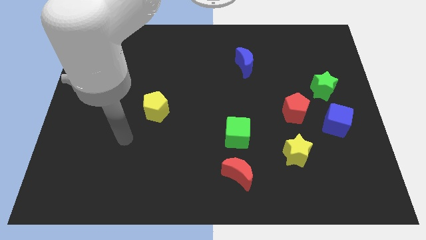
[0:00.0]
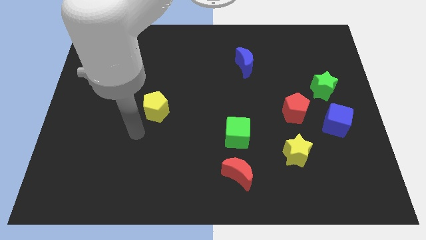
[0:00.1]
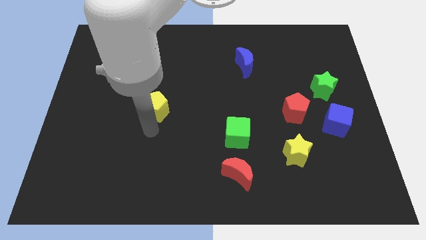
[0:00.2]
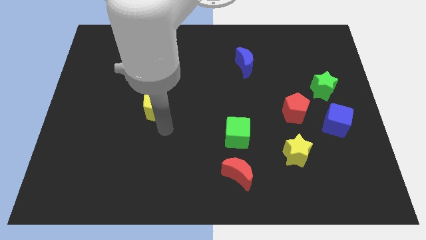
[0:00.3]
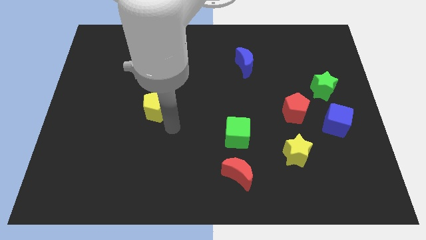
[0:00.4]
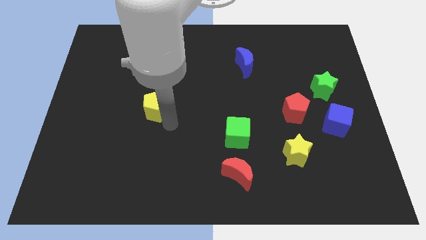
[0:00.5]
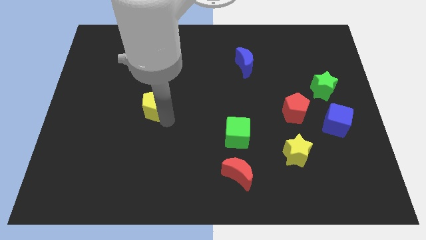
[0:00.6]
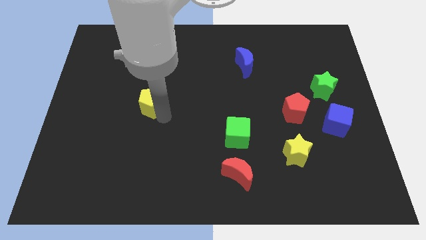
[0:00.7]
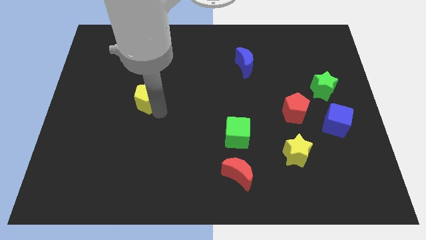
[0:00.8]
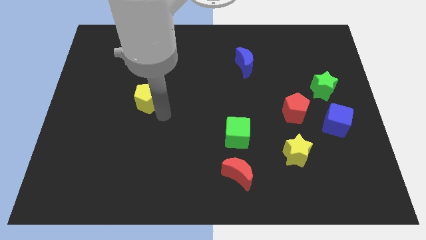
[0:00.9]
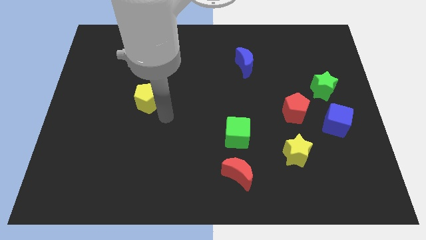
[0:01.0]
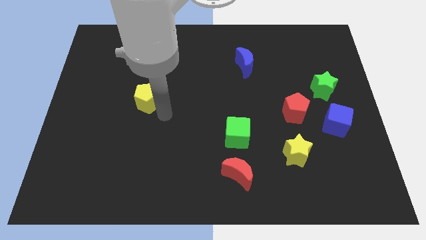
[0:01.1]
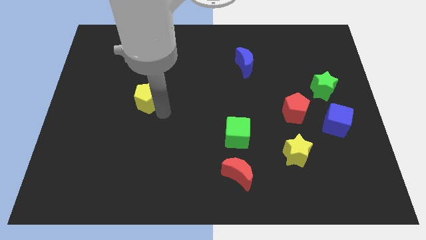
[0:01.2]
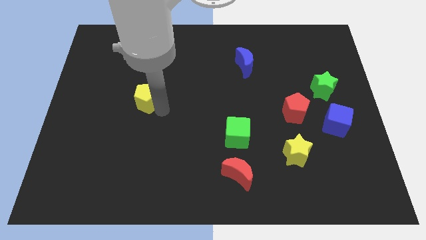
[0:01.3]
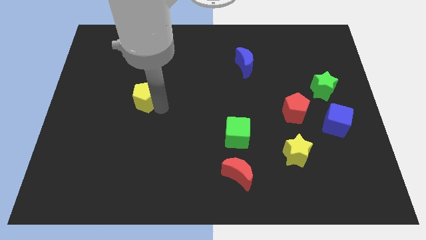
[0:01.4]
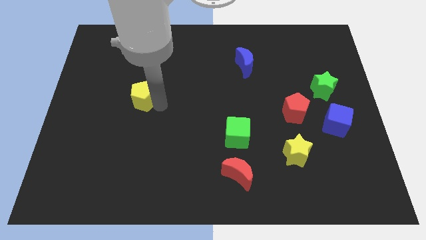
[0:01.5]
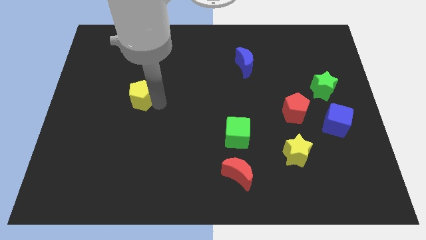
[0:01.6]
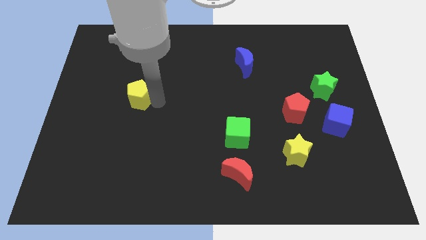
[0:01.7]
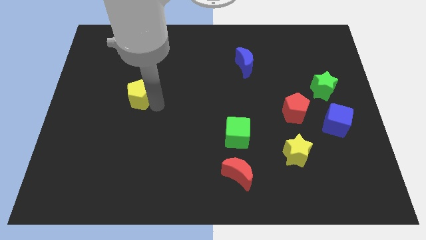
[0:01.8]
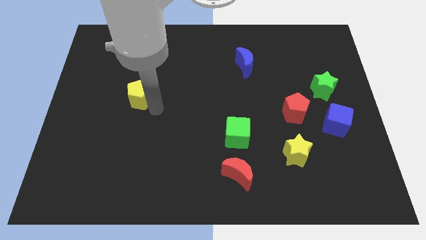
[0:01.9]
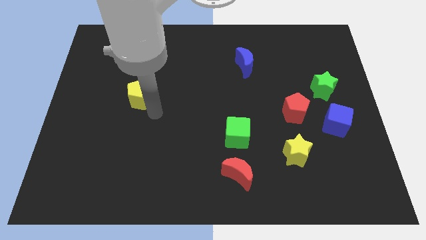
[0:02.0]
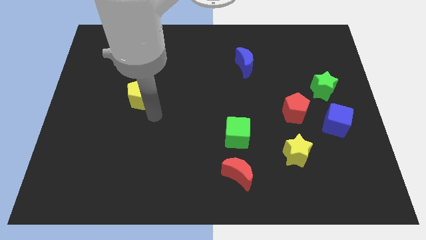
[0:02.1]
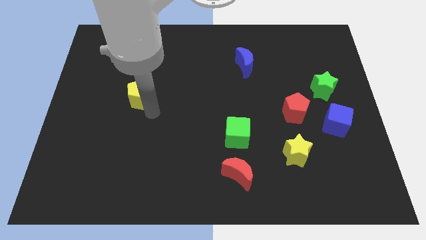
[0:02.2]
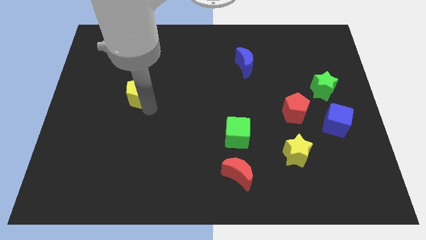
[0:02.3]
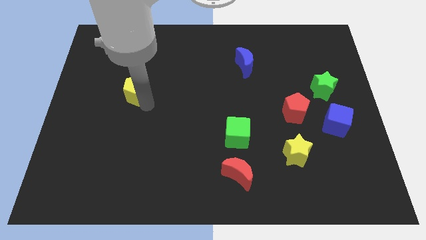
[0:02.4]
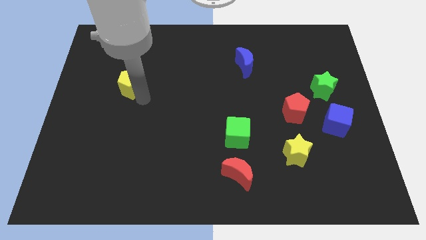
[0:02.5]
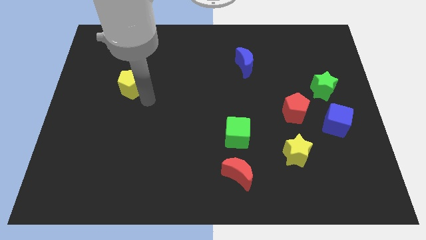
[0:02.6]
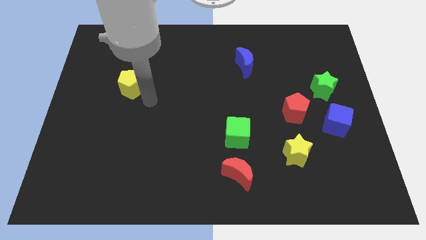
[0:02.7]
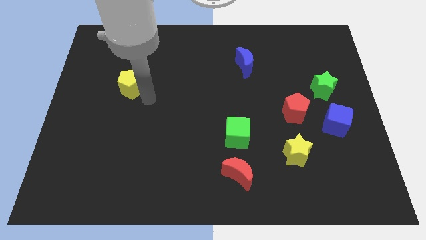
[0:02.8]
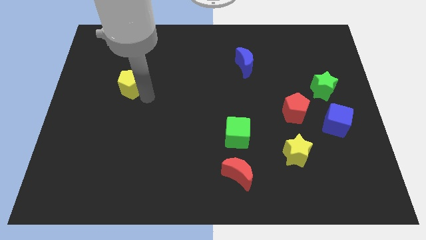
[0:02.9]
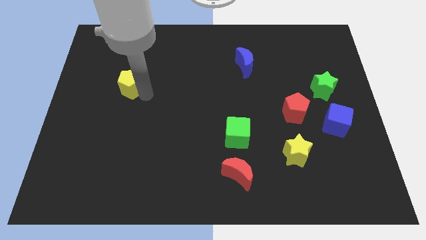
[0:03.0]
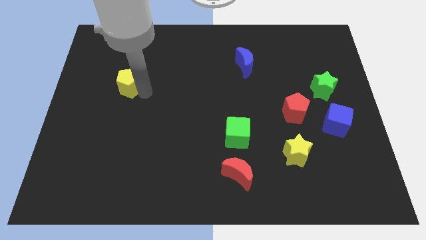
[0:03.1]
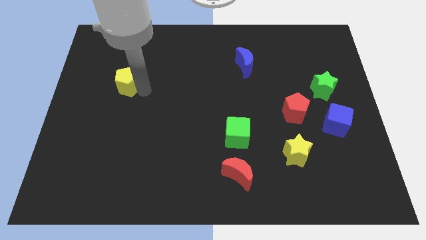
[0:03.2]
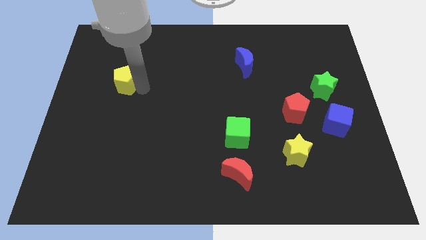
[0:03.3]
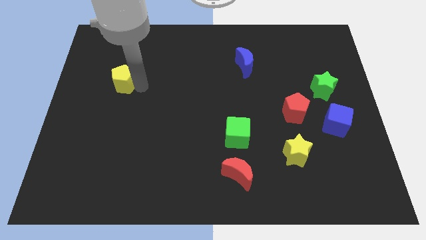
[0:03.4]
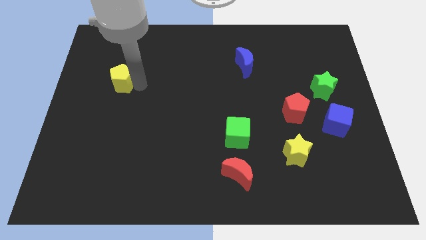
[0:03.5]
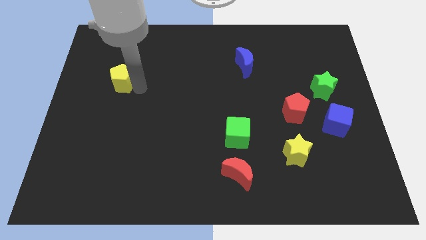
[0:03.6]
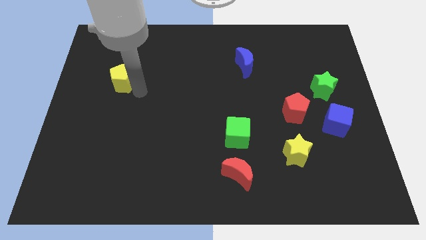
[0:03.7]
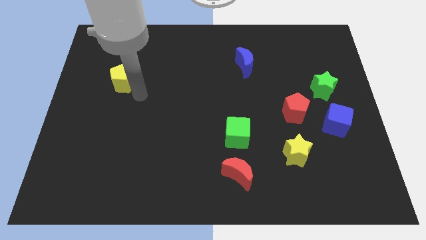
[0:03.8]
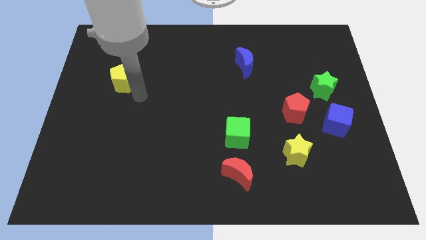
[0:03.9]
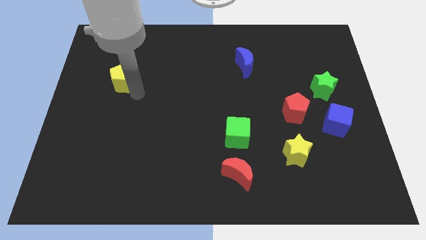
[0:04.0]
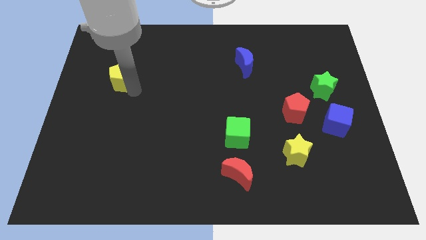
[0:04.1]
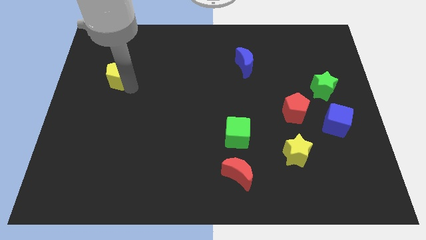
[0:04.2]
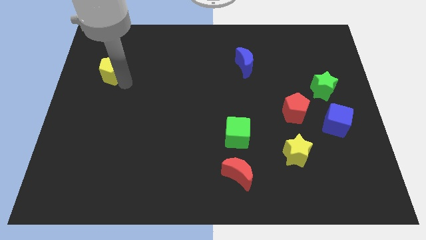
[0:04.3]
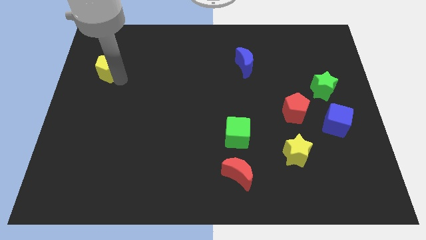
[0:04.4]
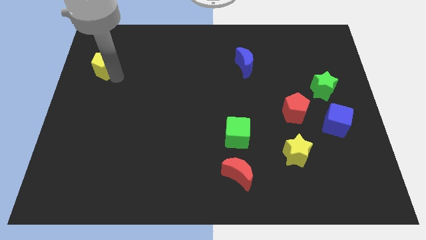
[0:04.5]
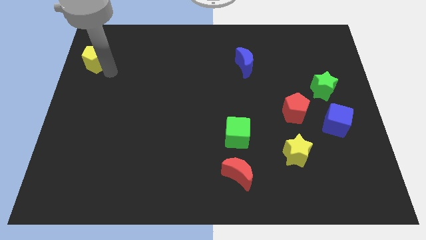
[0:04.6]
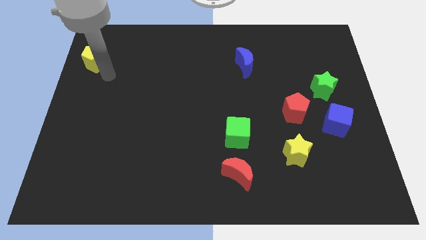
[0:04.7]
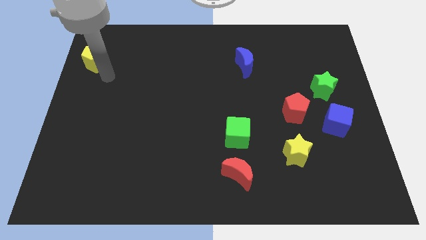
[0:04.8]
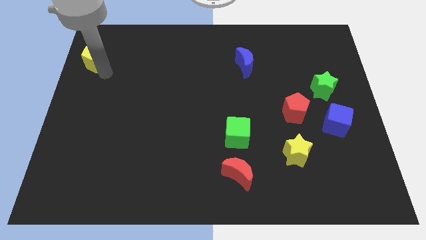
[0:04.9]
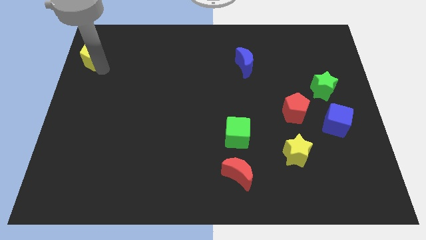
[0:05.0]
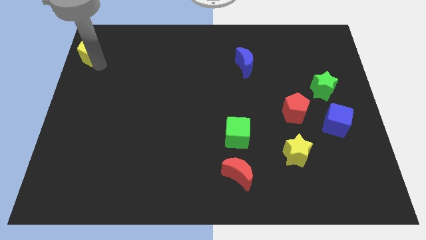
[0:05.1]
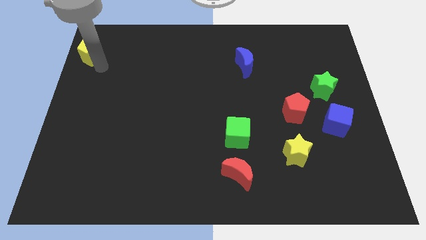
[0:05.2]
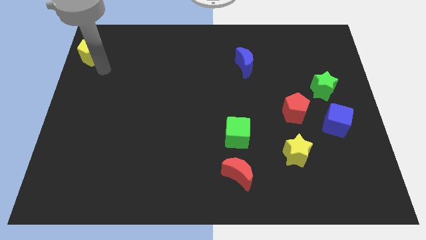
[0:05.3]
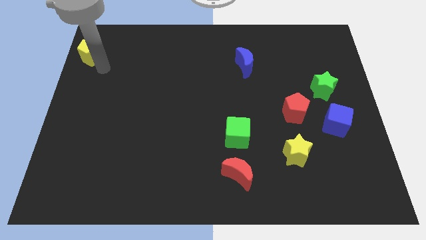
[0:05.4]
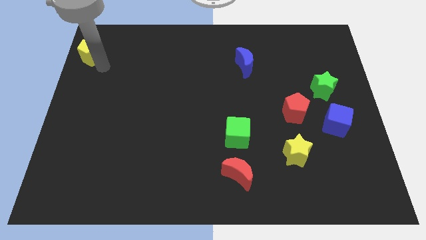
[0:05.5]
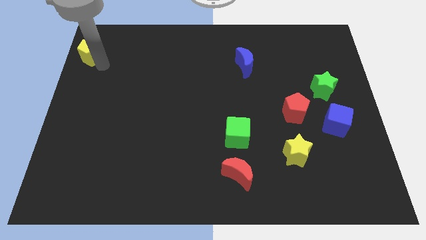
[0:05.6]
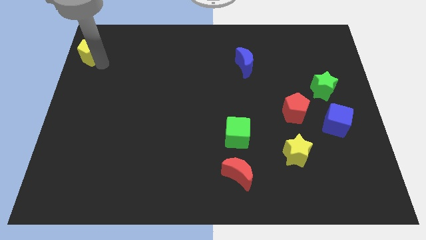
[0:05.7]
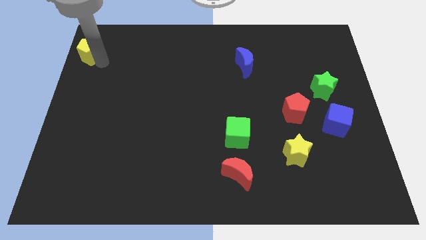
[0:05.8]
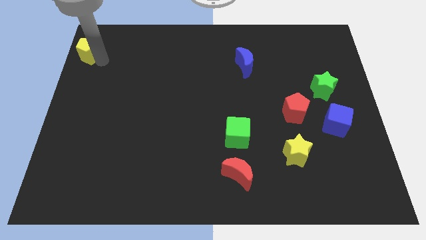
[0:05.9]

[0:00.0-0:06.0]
put the yellow pentagon to the upper left corner
